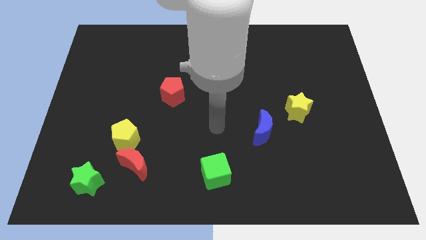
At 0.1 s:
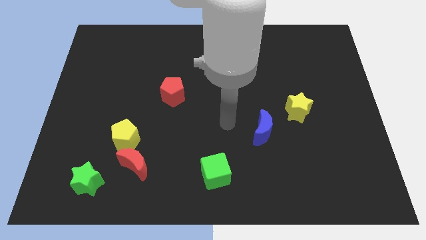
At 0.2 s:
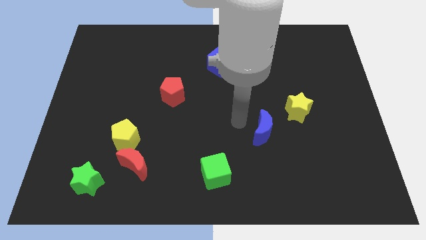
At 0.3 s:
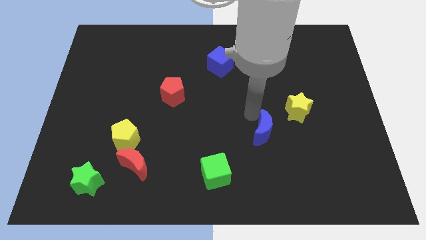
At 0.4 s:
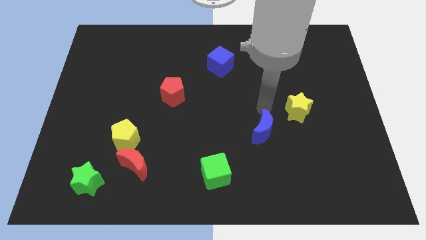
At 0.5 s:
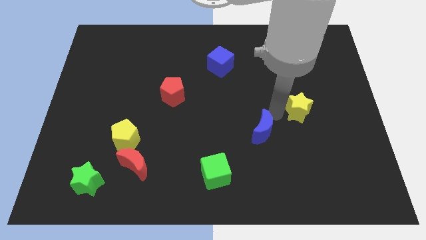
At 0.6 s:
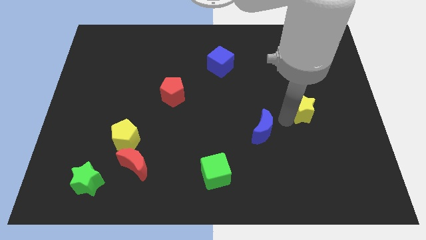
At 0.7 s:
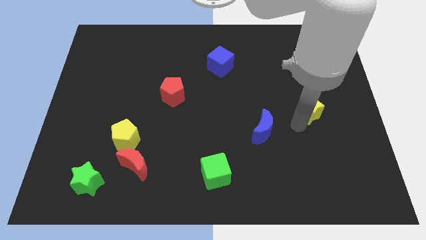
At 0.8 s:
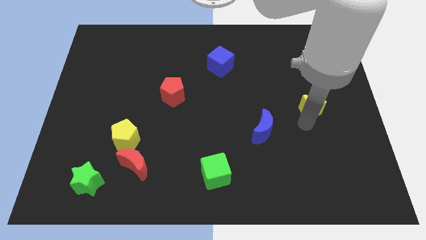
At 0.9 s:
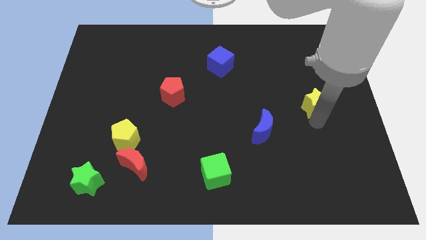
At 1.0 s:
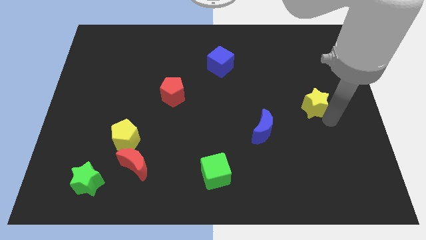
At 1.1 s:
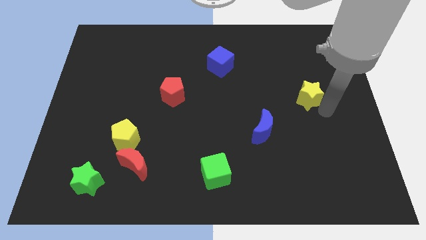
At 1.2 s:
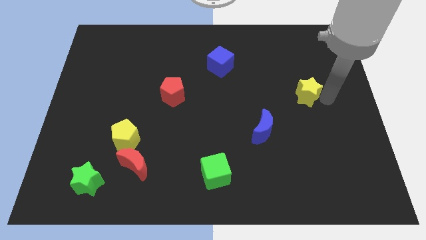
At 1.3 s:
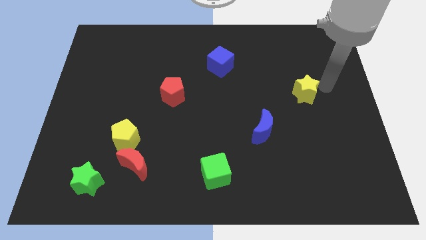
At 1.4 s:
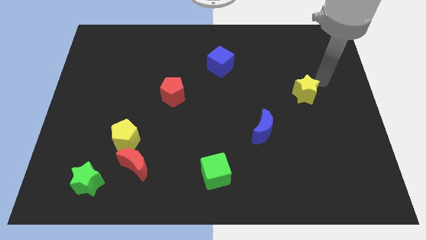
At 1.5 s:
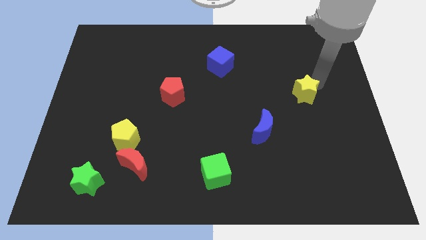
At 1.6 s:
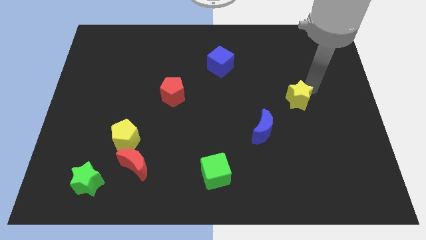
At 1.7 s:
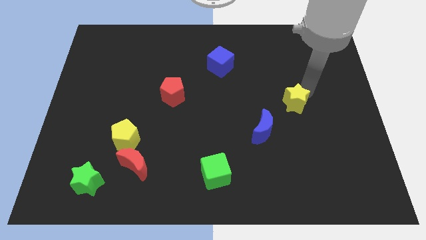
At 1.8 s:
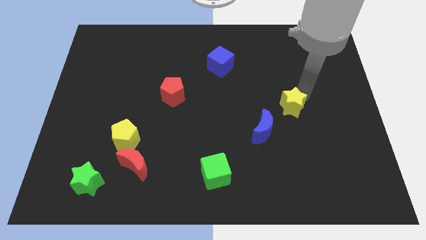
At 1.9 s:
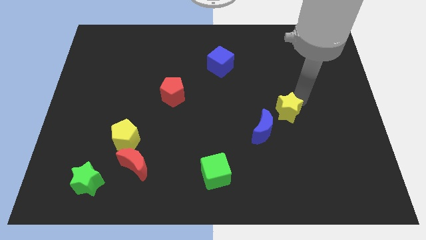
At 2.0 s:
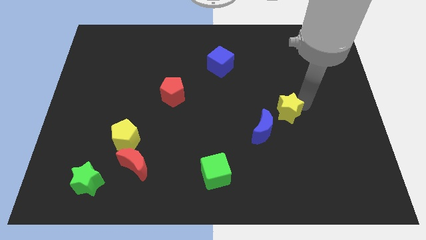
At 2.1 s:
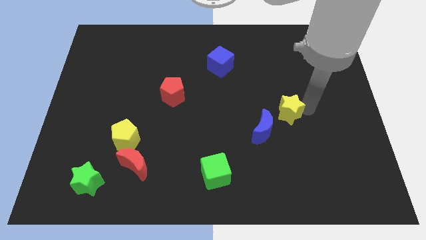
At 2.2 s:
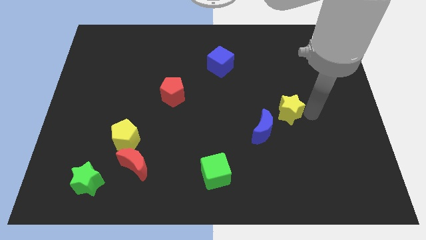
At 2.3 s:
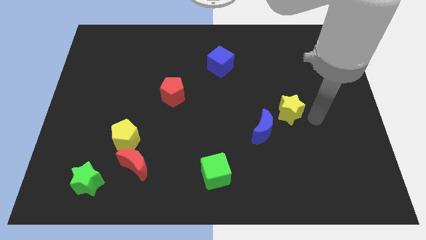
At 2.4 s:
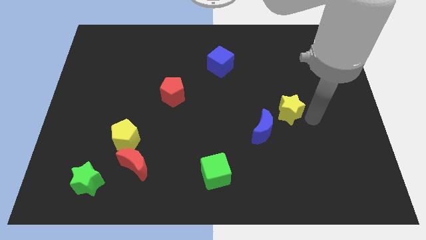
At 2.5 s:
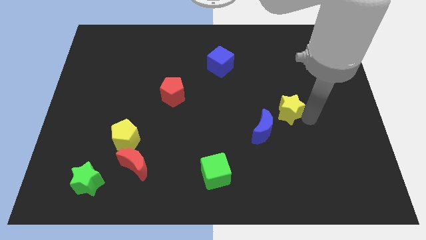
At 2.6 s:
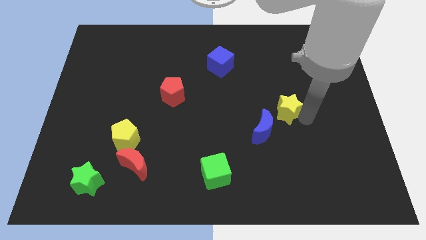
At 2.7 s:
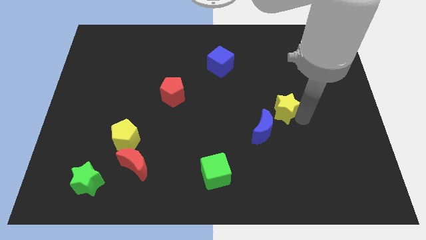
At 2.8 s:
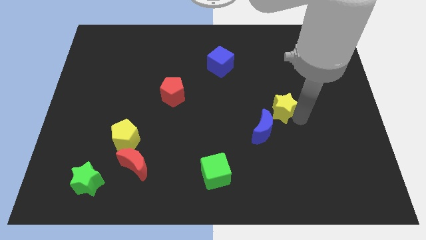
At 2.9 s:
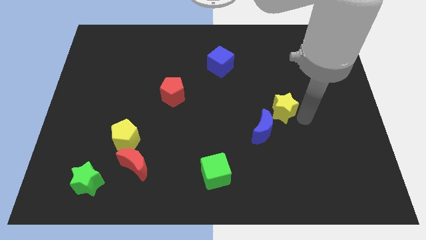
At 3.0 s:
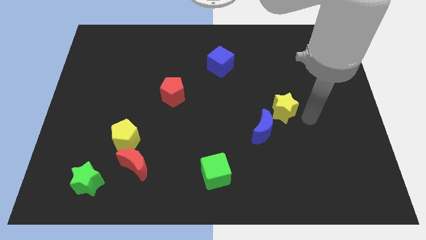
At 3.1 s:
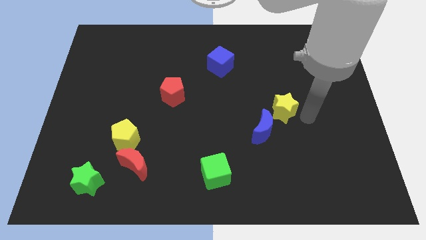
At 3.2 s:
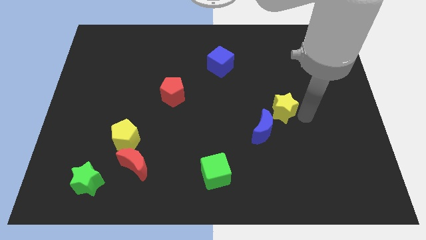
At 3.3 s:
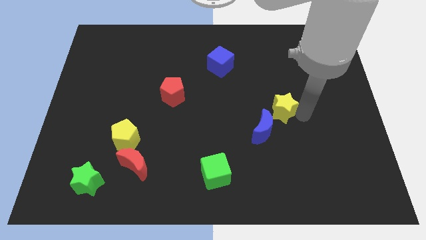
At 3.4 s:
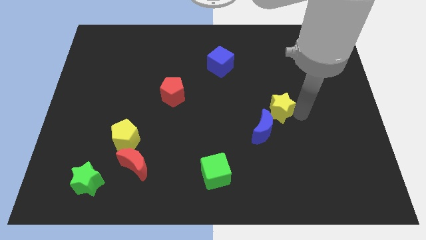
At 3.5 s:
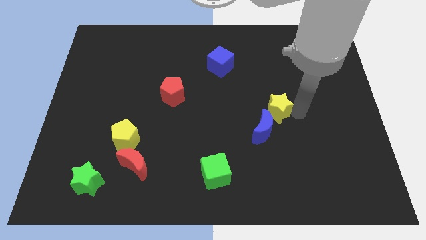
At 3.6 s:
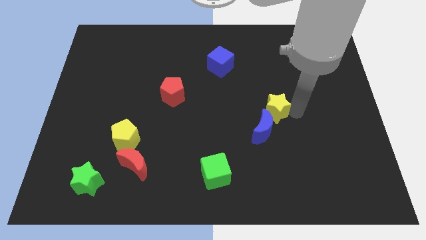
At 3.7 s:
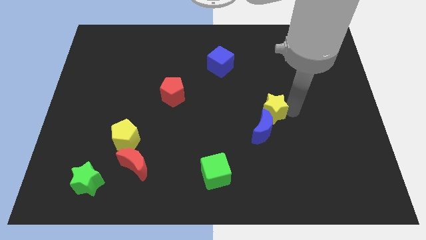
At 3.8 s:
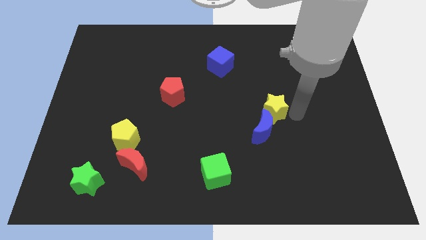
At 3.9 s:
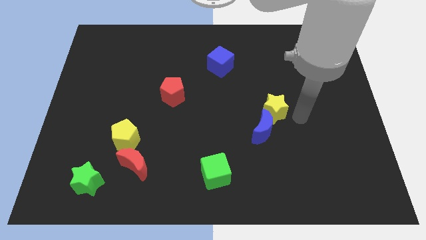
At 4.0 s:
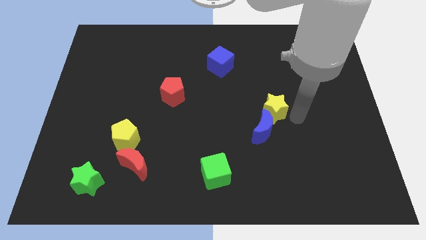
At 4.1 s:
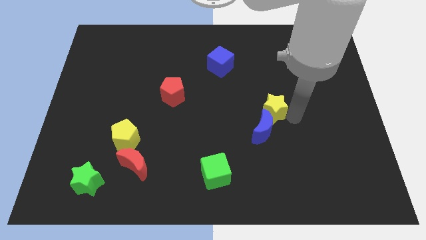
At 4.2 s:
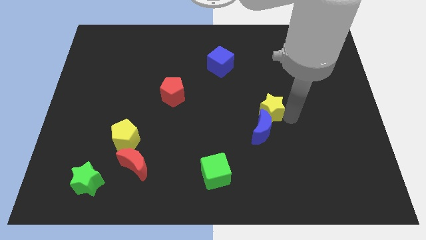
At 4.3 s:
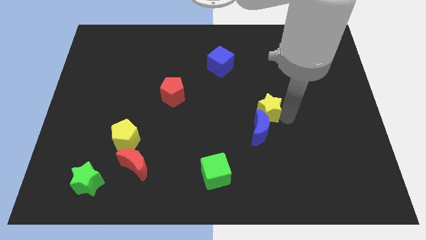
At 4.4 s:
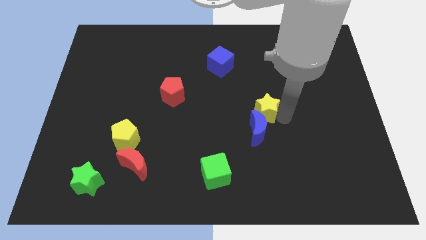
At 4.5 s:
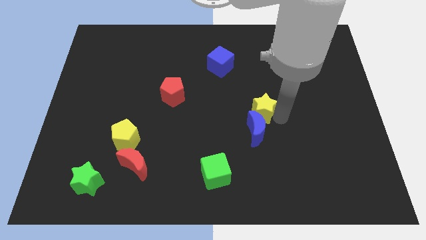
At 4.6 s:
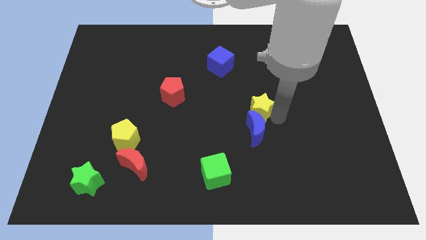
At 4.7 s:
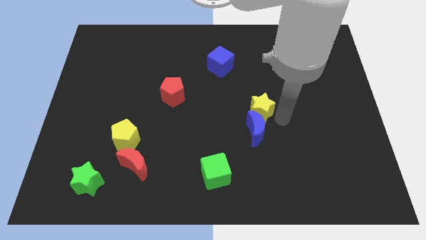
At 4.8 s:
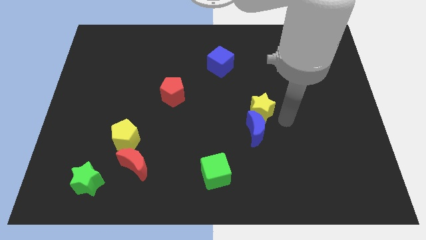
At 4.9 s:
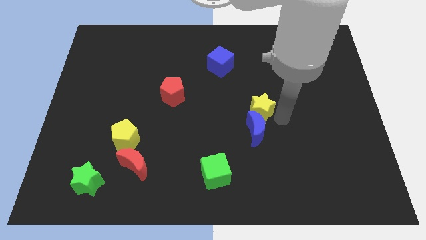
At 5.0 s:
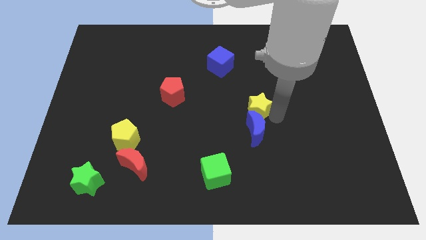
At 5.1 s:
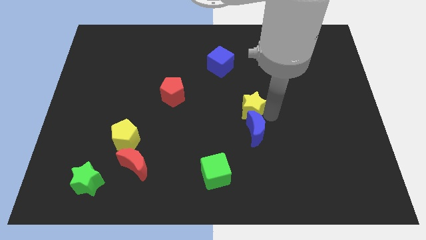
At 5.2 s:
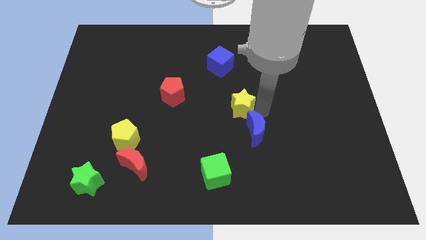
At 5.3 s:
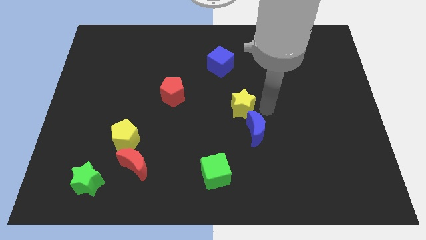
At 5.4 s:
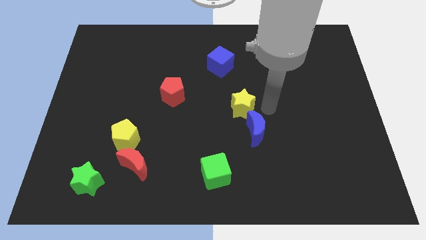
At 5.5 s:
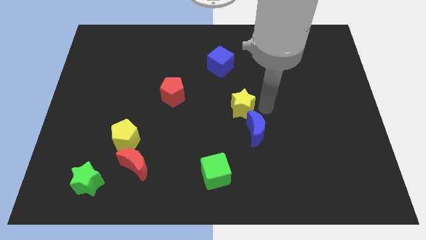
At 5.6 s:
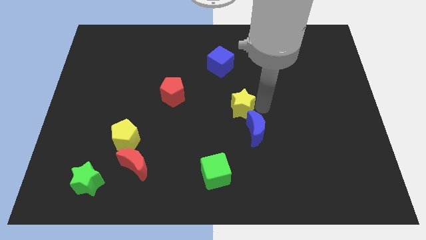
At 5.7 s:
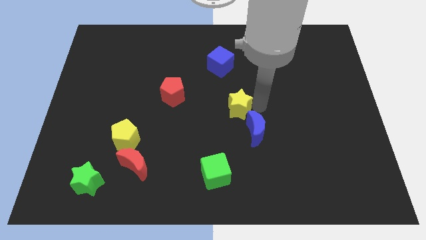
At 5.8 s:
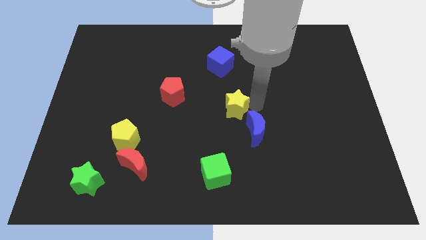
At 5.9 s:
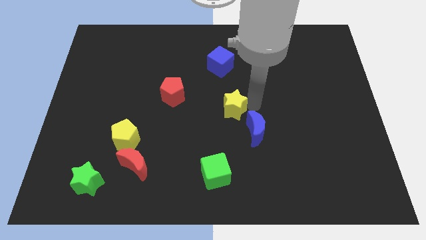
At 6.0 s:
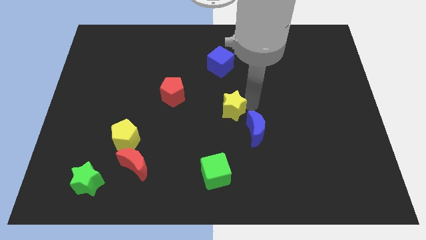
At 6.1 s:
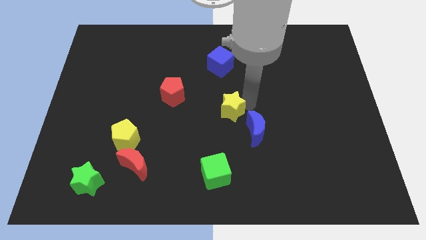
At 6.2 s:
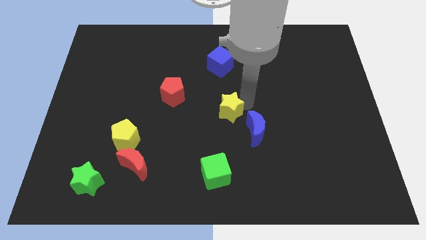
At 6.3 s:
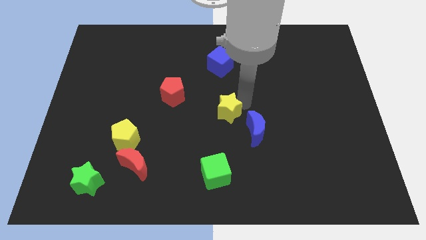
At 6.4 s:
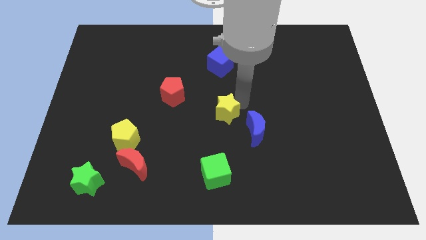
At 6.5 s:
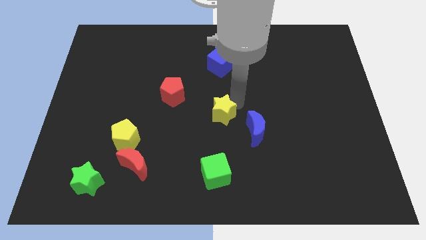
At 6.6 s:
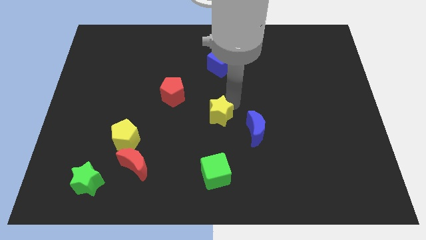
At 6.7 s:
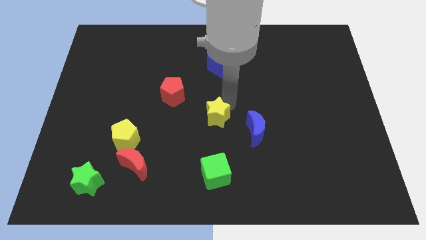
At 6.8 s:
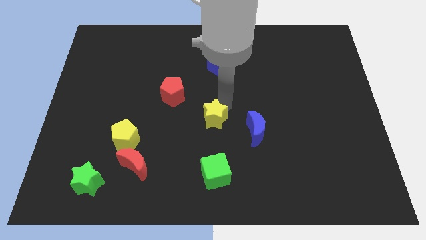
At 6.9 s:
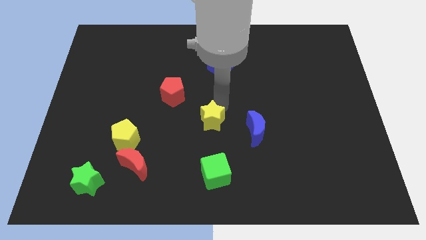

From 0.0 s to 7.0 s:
move the yellow star to the left

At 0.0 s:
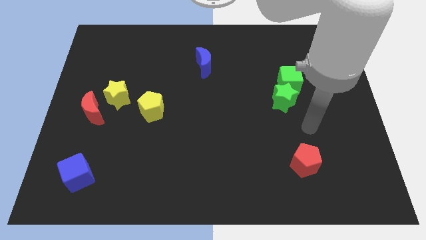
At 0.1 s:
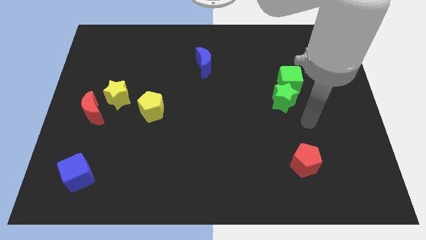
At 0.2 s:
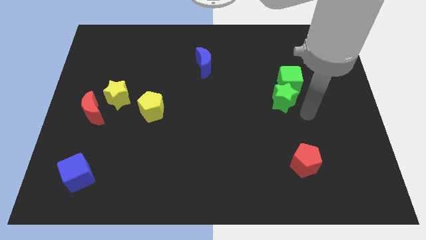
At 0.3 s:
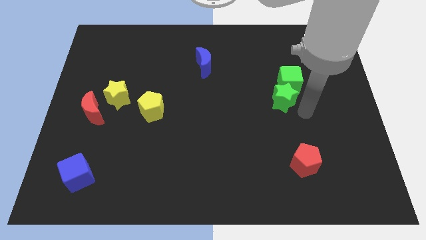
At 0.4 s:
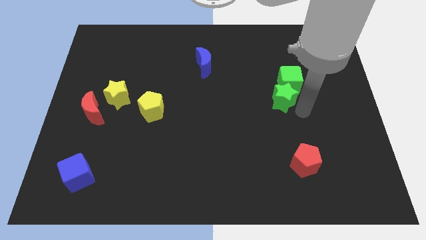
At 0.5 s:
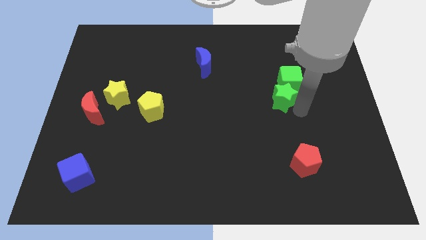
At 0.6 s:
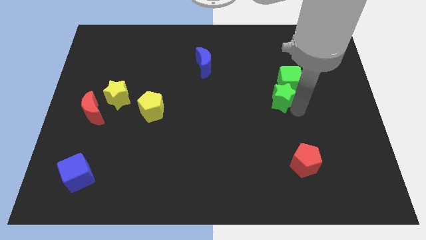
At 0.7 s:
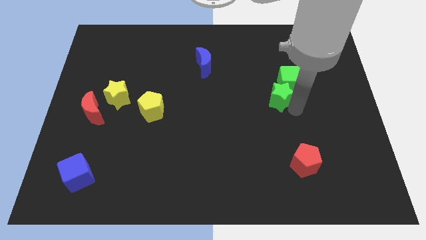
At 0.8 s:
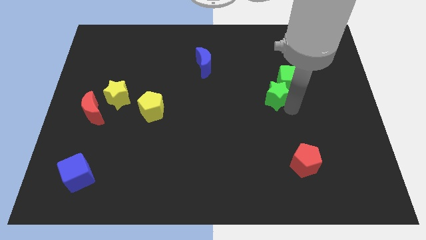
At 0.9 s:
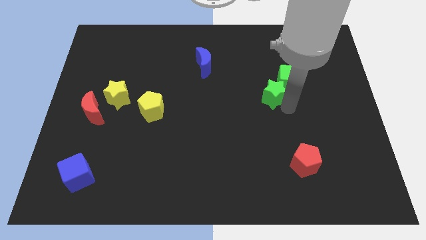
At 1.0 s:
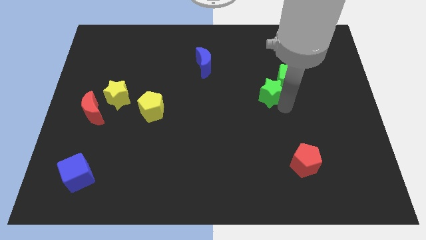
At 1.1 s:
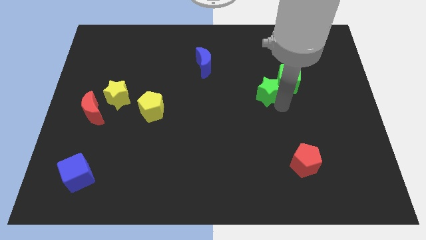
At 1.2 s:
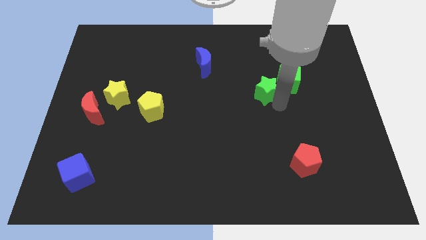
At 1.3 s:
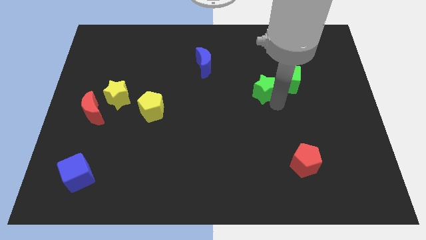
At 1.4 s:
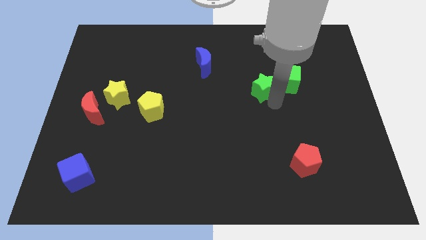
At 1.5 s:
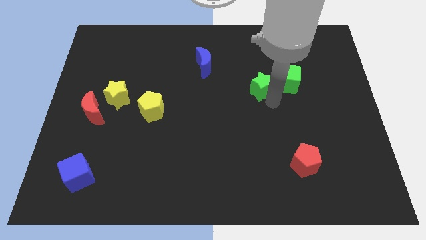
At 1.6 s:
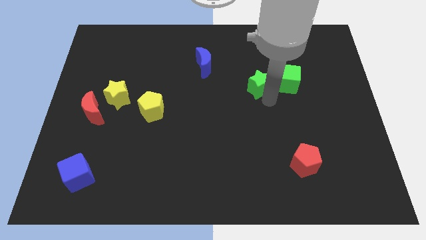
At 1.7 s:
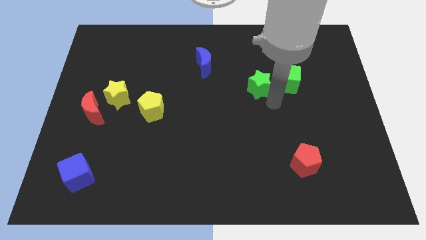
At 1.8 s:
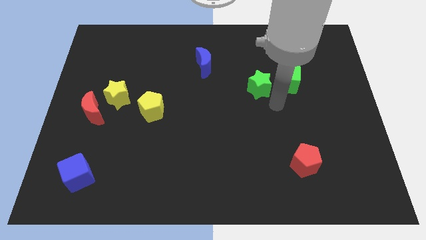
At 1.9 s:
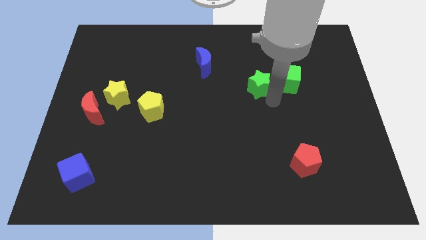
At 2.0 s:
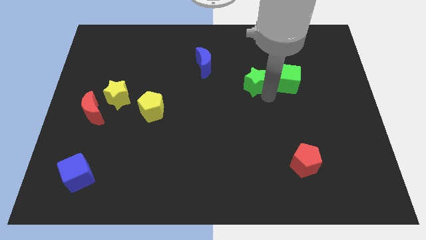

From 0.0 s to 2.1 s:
move the green star upwards and to the left a bit
